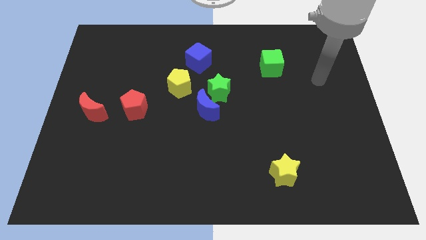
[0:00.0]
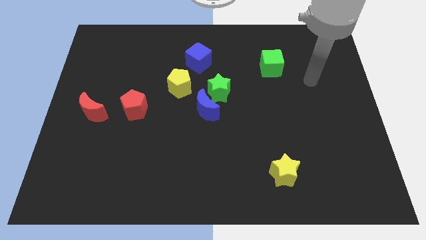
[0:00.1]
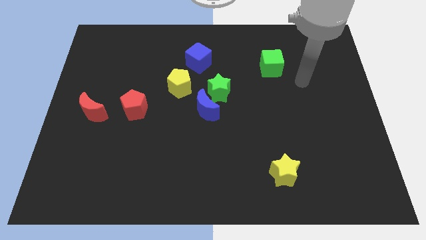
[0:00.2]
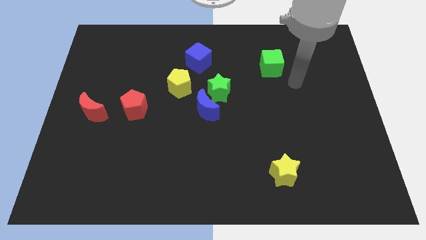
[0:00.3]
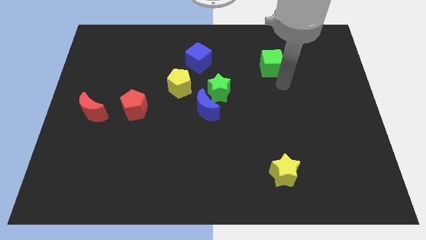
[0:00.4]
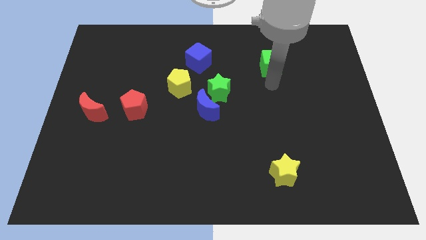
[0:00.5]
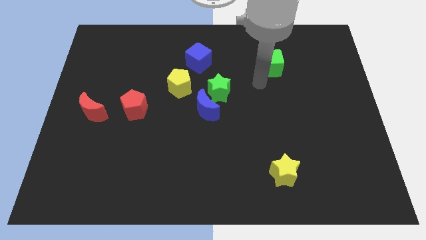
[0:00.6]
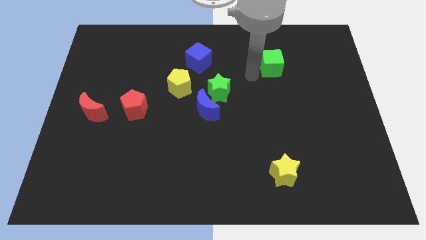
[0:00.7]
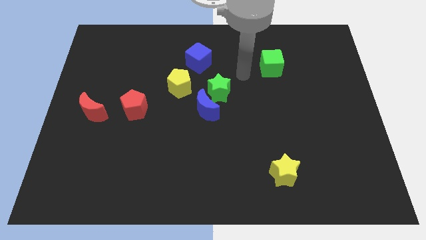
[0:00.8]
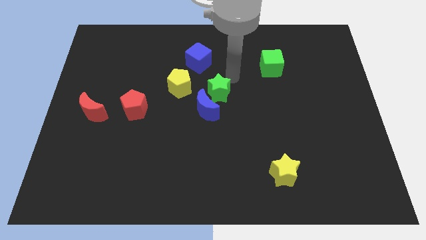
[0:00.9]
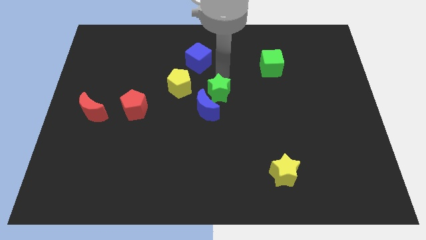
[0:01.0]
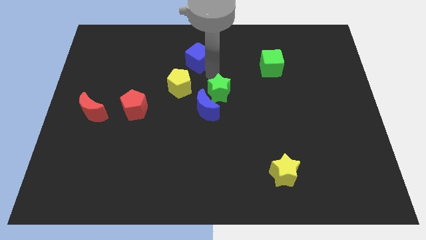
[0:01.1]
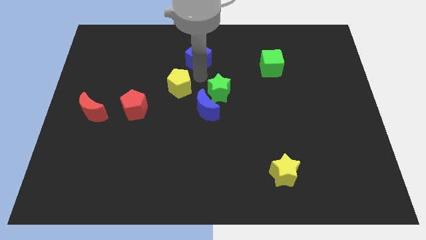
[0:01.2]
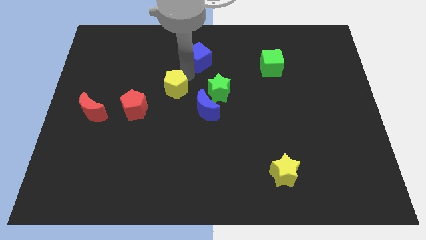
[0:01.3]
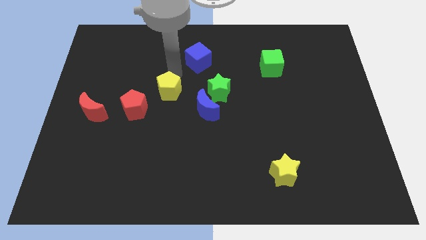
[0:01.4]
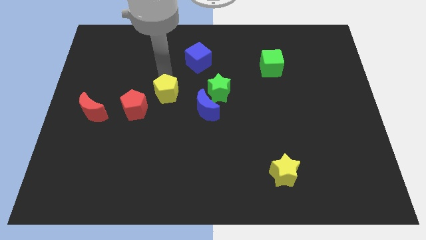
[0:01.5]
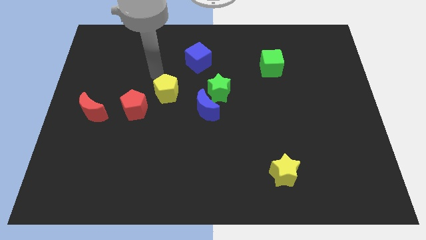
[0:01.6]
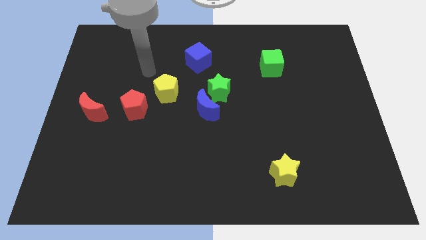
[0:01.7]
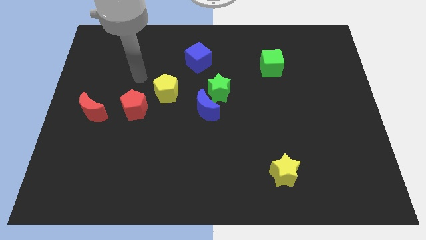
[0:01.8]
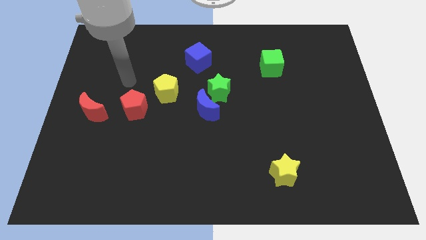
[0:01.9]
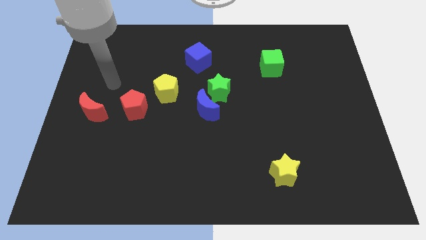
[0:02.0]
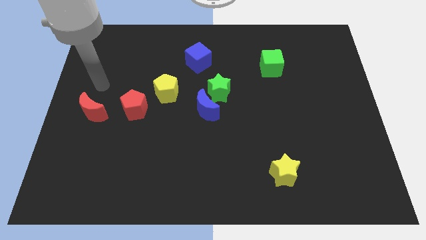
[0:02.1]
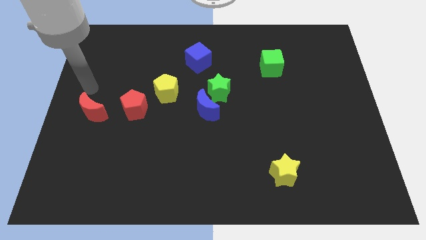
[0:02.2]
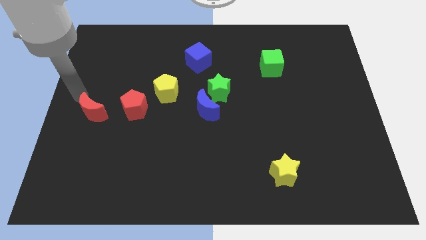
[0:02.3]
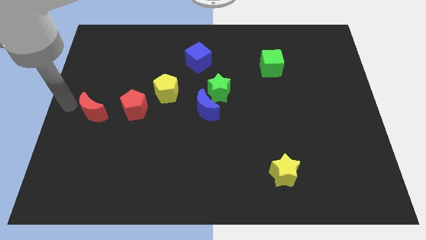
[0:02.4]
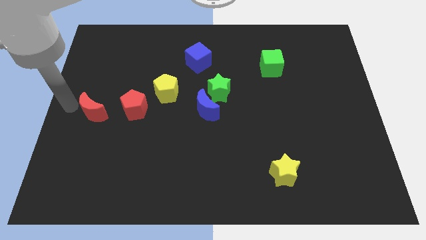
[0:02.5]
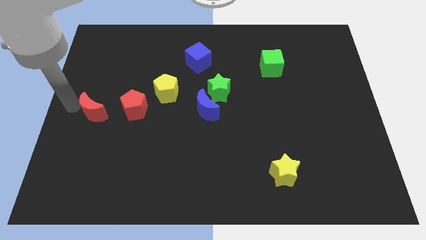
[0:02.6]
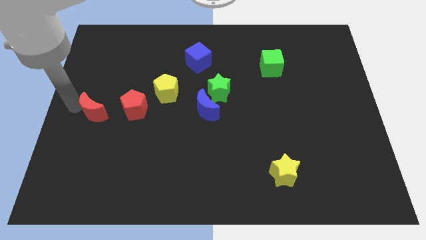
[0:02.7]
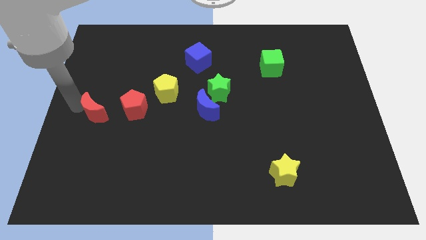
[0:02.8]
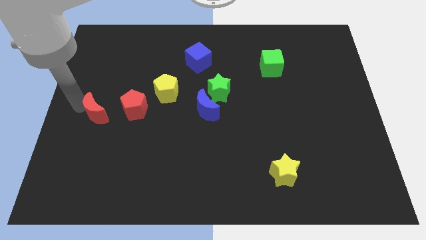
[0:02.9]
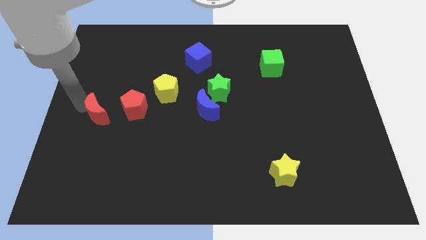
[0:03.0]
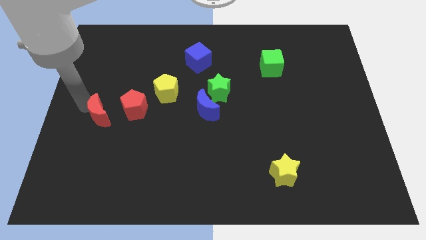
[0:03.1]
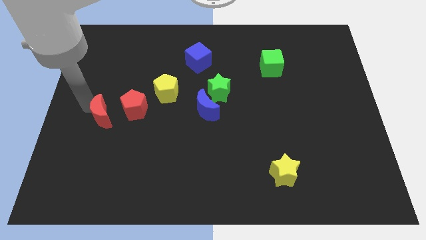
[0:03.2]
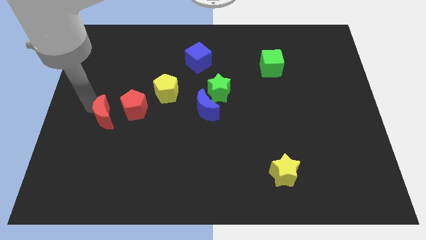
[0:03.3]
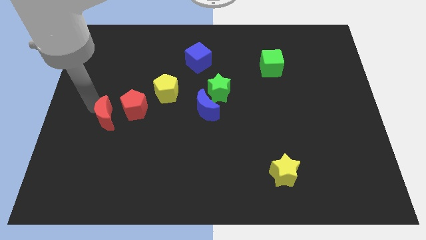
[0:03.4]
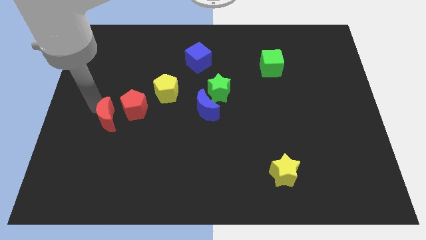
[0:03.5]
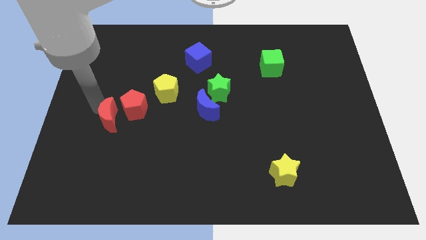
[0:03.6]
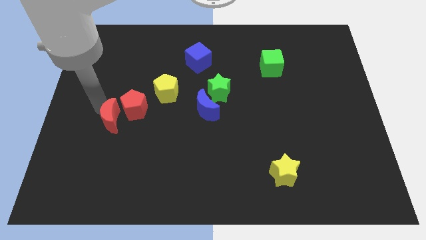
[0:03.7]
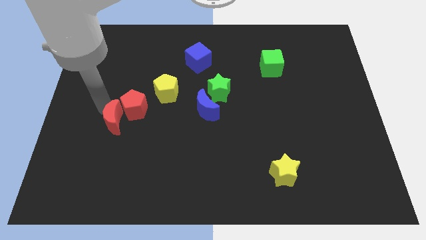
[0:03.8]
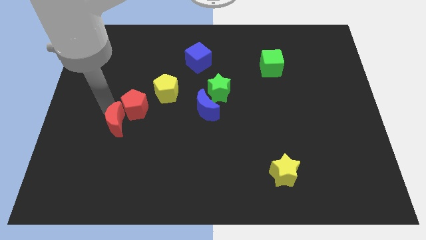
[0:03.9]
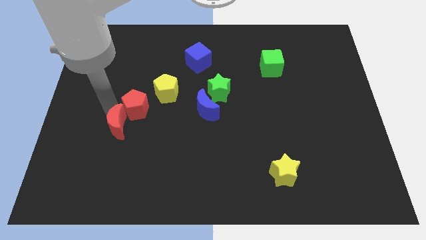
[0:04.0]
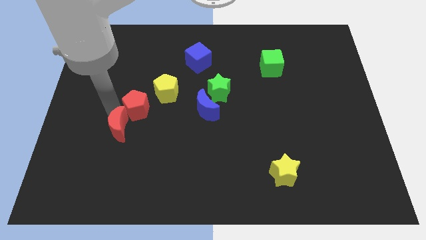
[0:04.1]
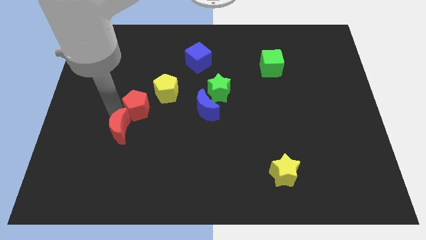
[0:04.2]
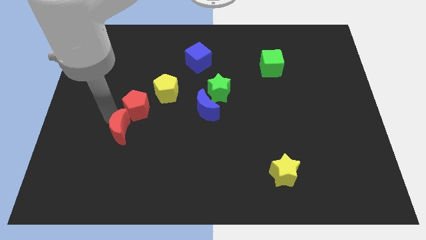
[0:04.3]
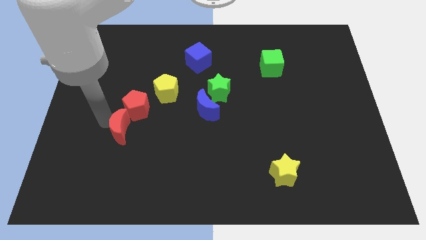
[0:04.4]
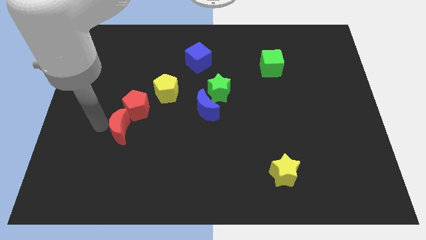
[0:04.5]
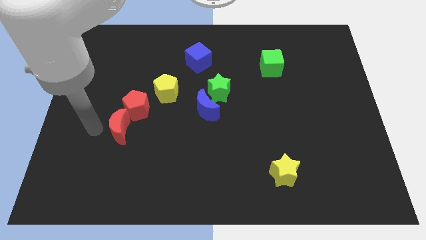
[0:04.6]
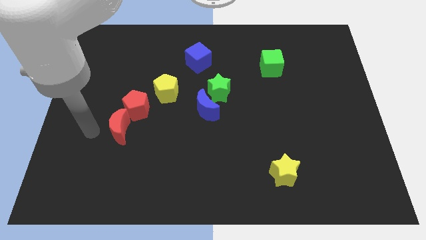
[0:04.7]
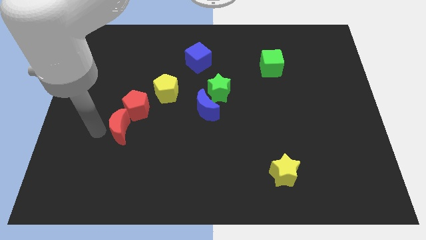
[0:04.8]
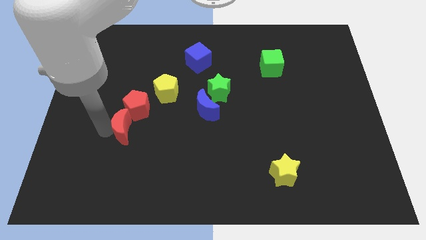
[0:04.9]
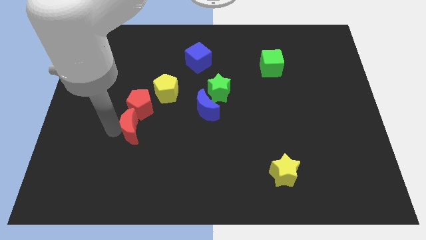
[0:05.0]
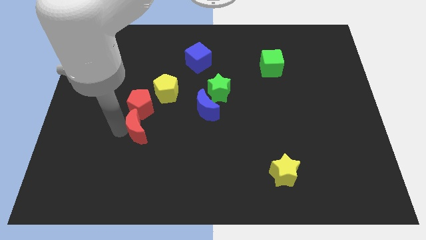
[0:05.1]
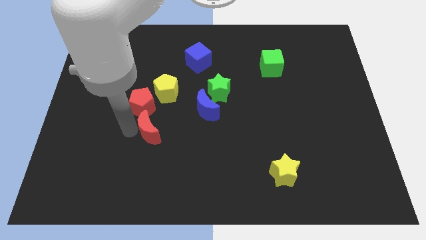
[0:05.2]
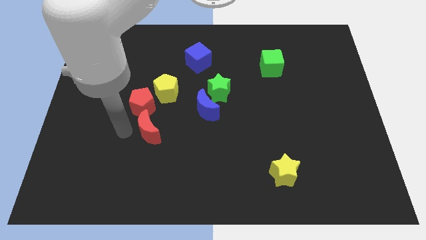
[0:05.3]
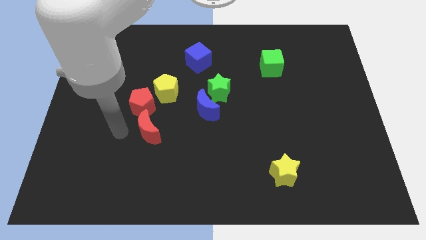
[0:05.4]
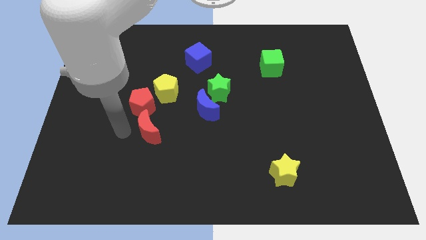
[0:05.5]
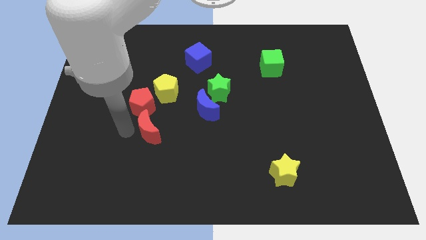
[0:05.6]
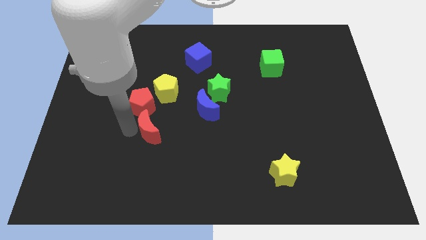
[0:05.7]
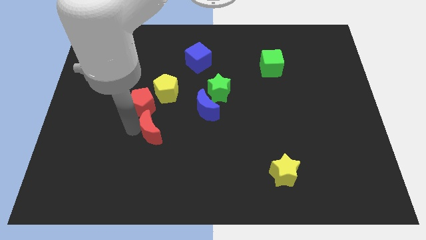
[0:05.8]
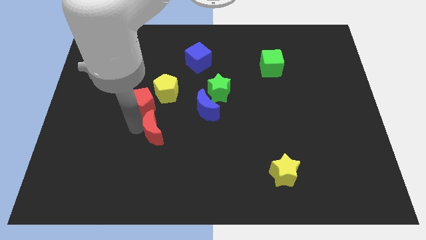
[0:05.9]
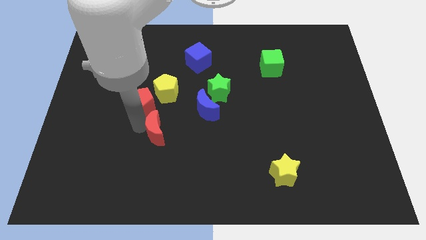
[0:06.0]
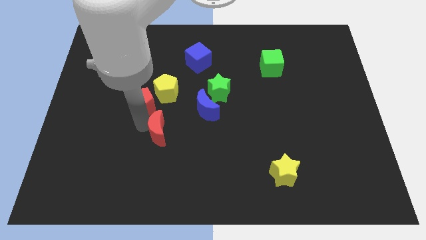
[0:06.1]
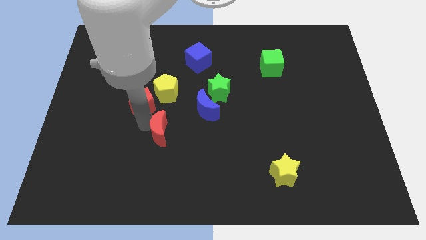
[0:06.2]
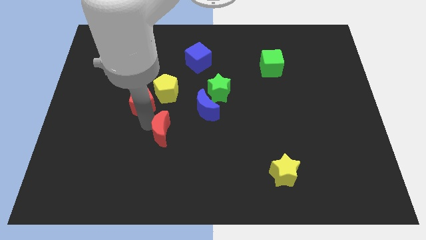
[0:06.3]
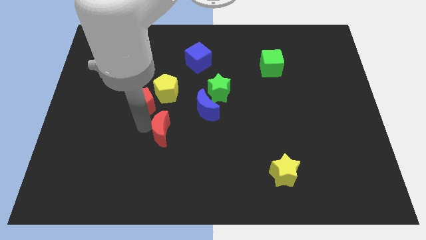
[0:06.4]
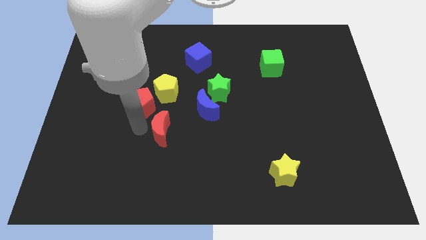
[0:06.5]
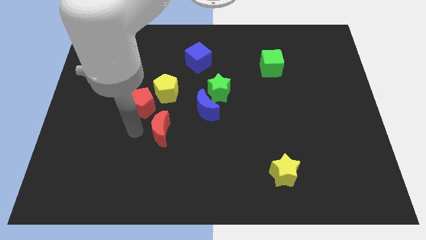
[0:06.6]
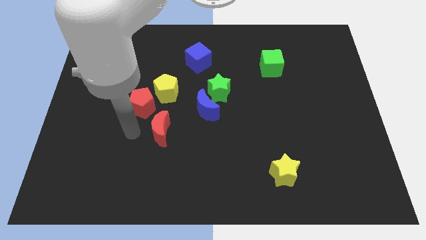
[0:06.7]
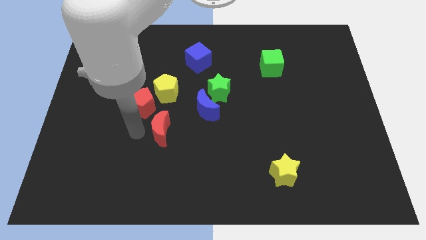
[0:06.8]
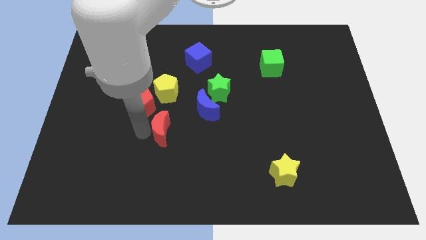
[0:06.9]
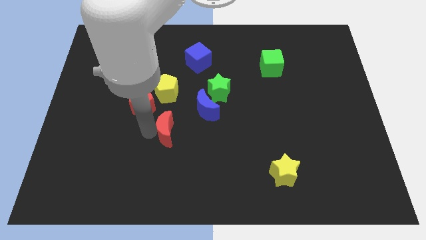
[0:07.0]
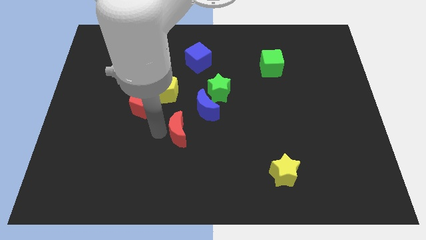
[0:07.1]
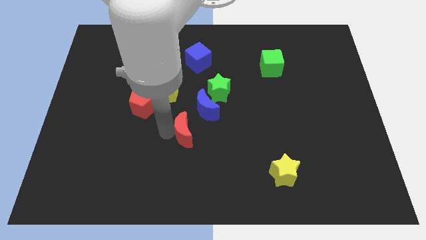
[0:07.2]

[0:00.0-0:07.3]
push the red moon to the right

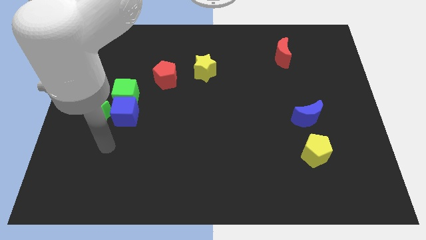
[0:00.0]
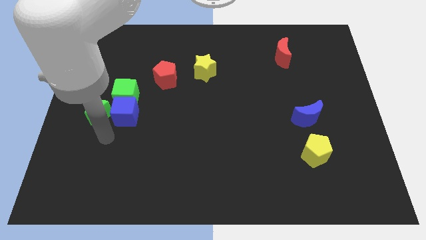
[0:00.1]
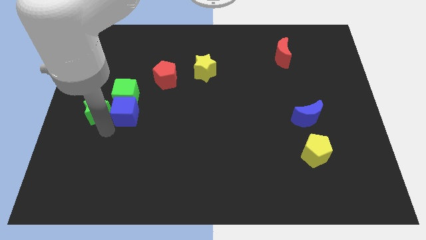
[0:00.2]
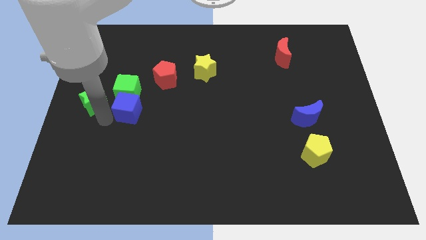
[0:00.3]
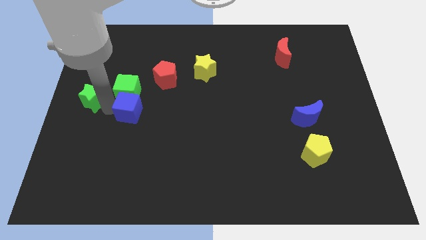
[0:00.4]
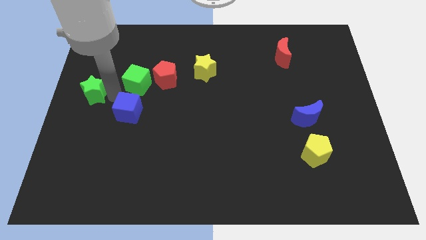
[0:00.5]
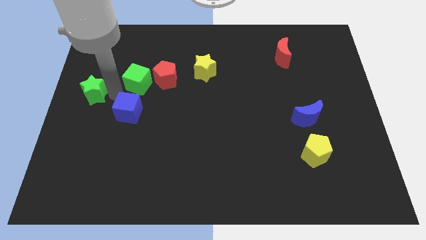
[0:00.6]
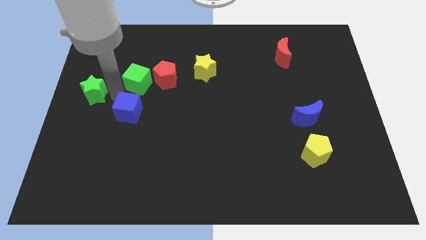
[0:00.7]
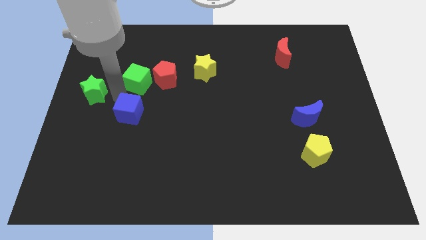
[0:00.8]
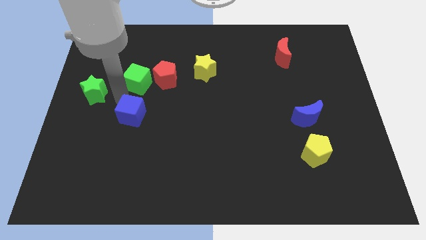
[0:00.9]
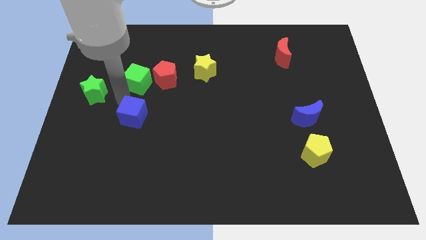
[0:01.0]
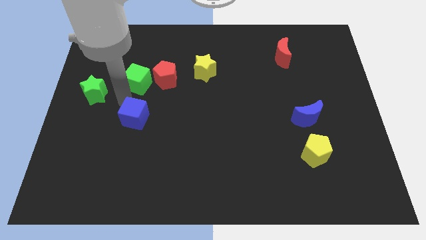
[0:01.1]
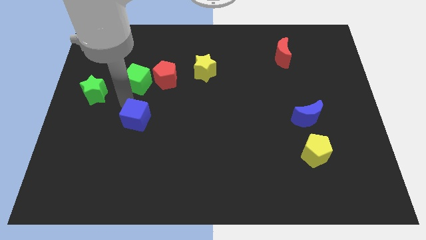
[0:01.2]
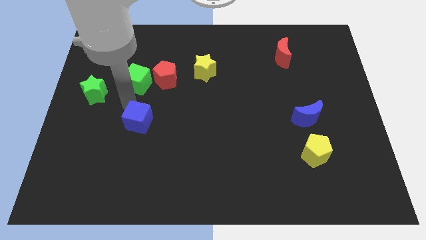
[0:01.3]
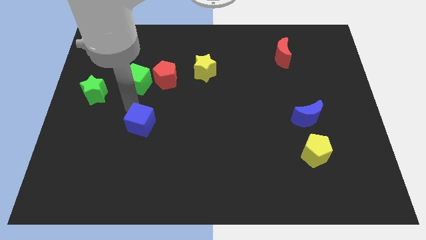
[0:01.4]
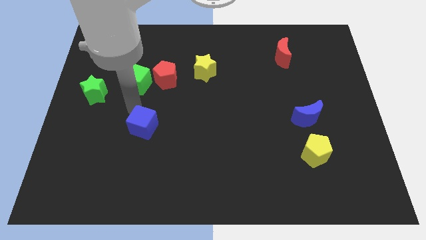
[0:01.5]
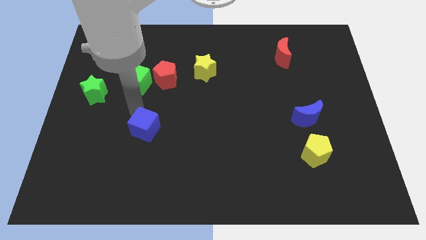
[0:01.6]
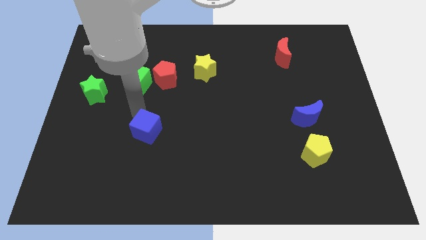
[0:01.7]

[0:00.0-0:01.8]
move the blue cube downwards and to the right diagonally a little
